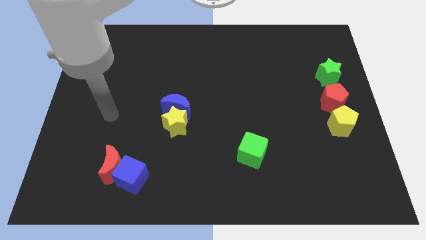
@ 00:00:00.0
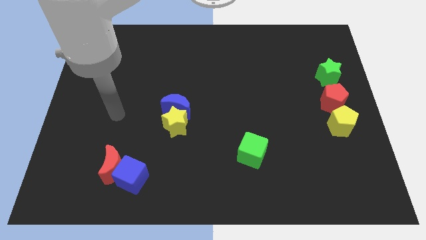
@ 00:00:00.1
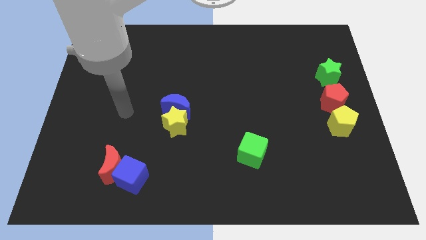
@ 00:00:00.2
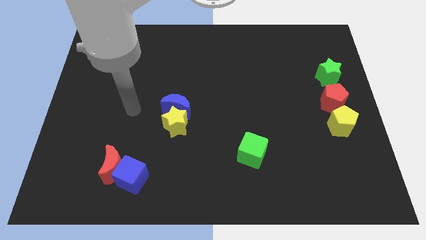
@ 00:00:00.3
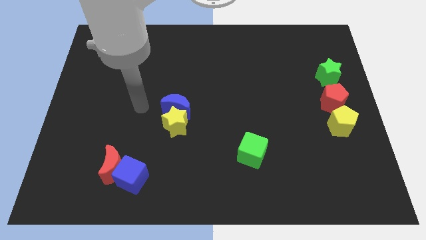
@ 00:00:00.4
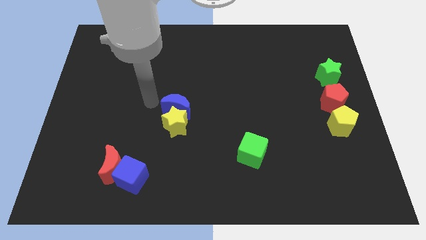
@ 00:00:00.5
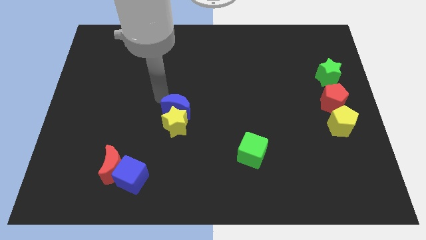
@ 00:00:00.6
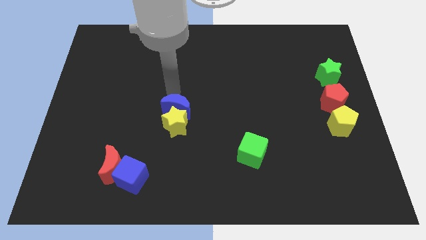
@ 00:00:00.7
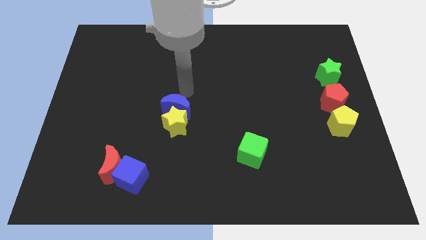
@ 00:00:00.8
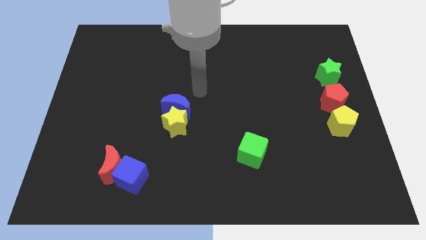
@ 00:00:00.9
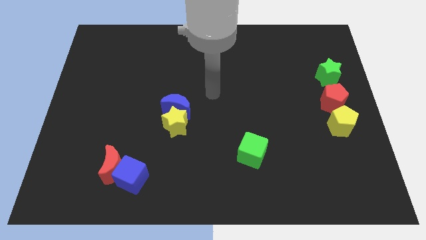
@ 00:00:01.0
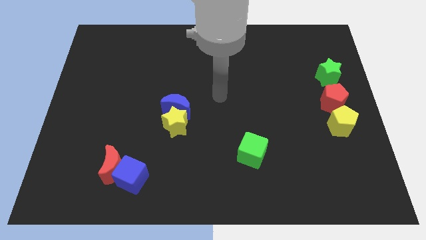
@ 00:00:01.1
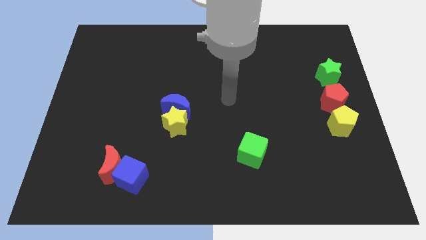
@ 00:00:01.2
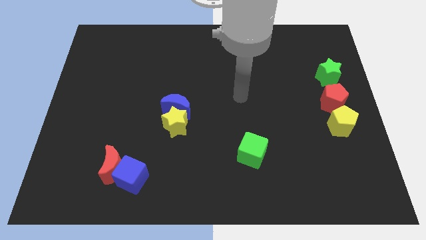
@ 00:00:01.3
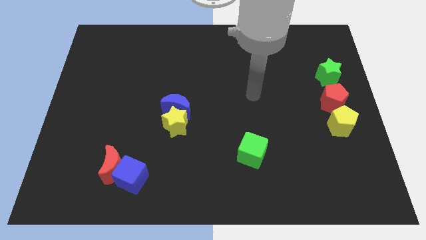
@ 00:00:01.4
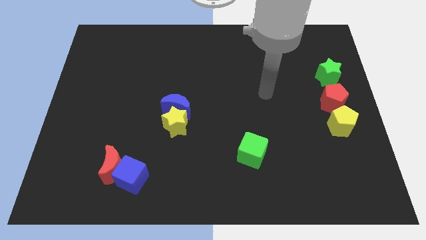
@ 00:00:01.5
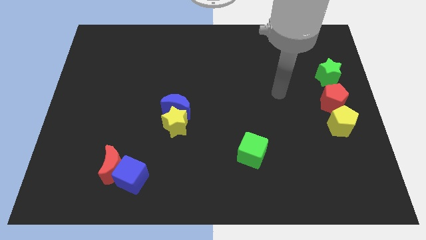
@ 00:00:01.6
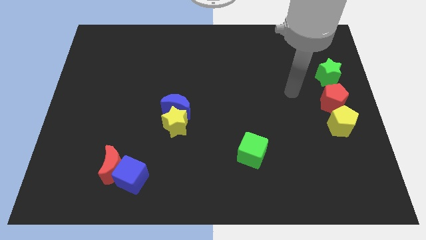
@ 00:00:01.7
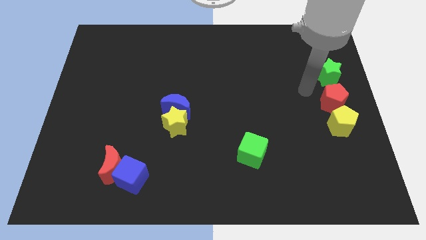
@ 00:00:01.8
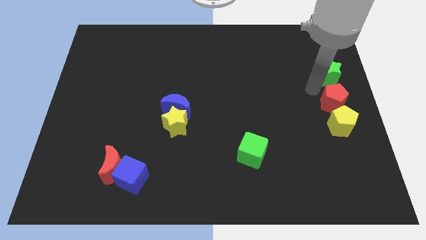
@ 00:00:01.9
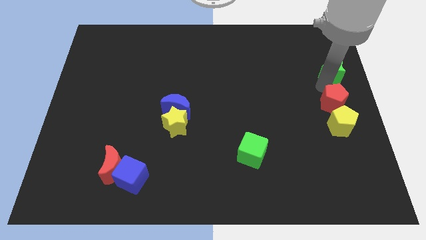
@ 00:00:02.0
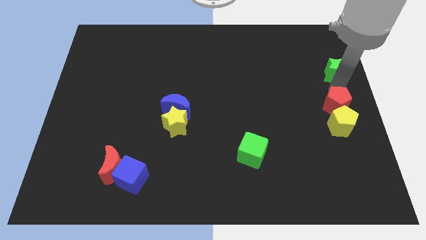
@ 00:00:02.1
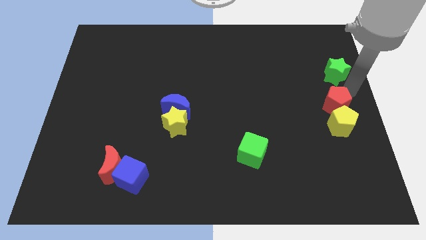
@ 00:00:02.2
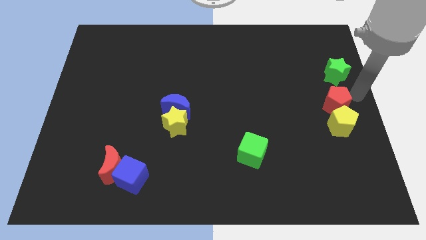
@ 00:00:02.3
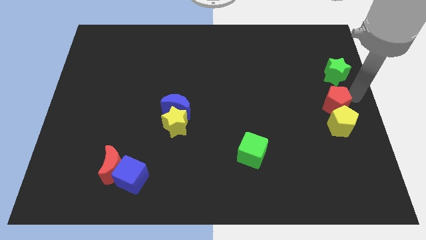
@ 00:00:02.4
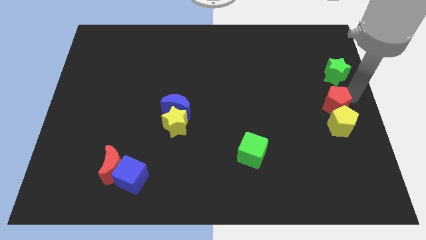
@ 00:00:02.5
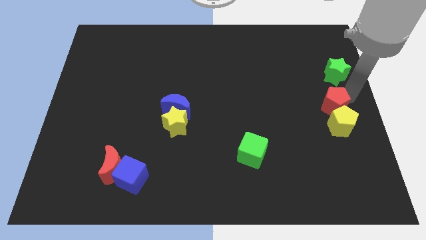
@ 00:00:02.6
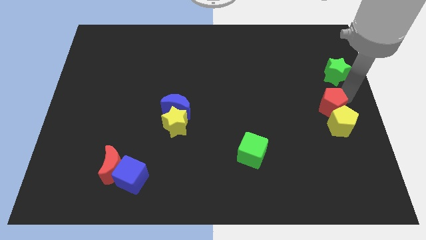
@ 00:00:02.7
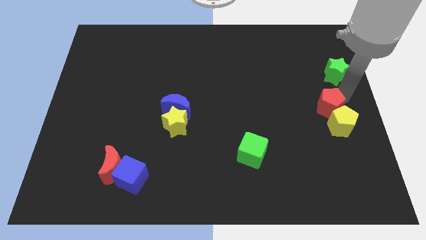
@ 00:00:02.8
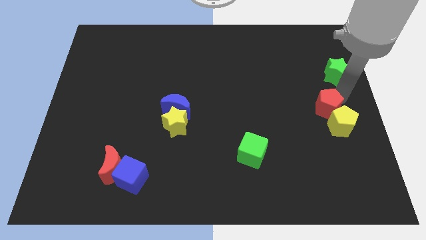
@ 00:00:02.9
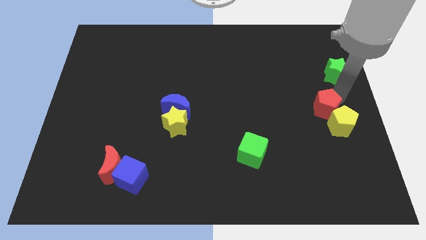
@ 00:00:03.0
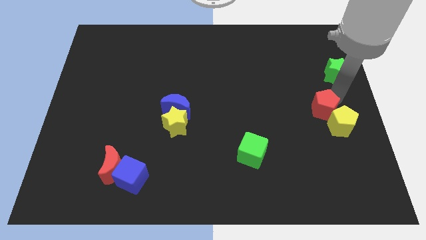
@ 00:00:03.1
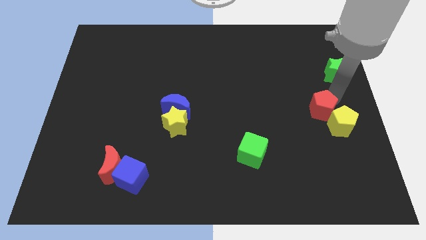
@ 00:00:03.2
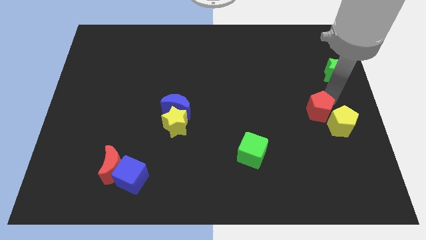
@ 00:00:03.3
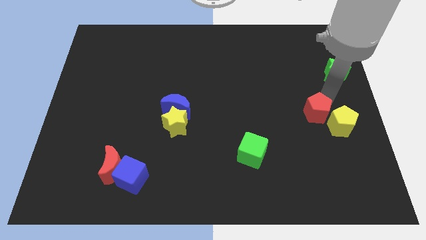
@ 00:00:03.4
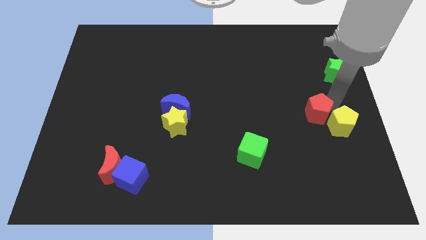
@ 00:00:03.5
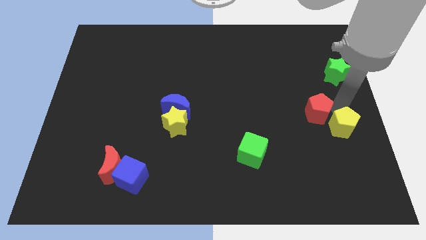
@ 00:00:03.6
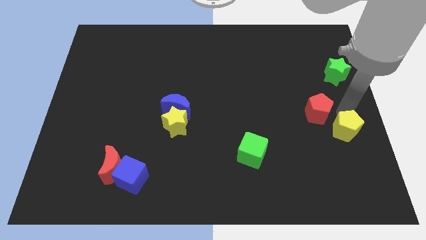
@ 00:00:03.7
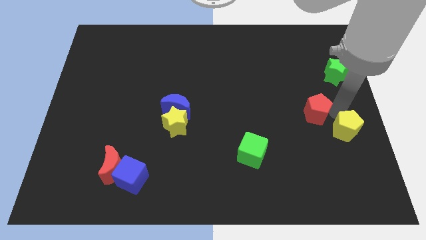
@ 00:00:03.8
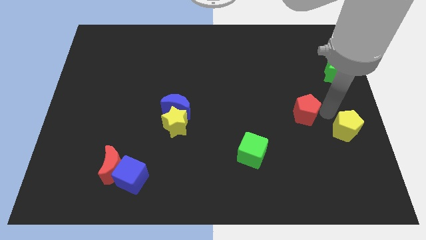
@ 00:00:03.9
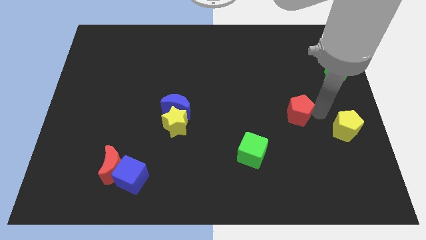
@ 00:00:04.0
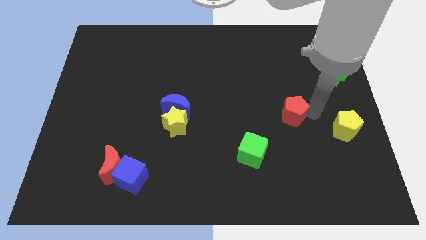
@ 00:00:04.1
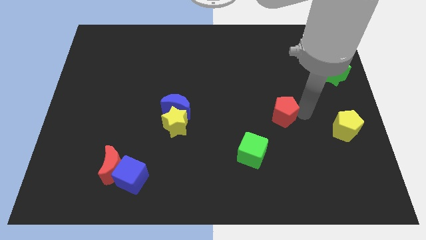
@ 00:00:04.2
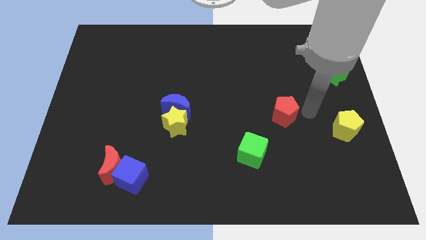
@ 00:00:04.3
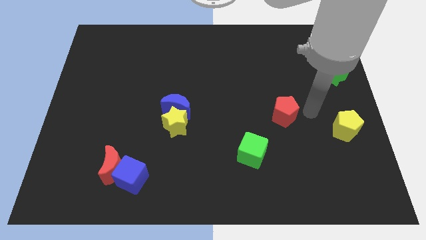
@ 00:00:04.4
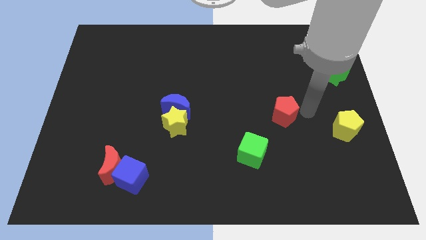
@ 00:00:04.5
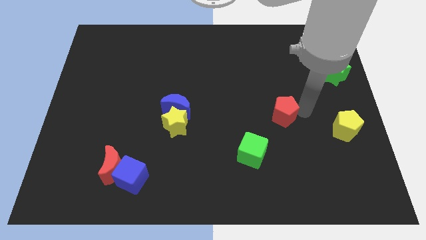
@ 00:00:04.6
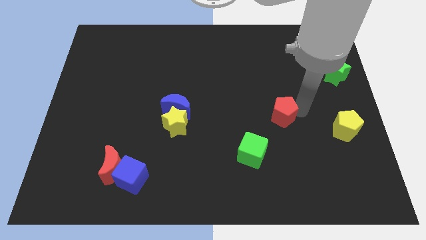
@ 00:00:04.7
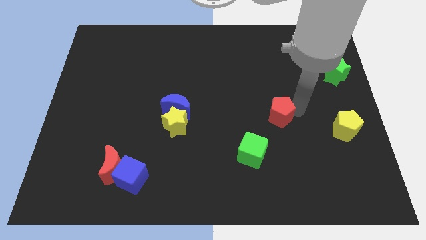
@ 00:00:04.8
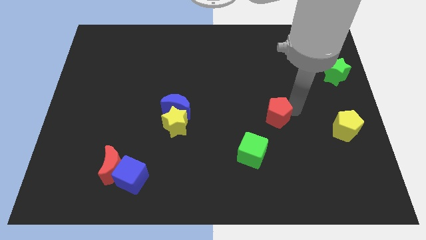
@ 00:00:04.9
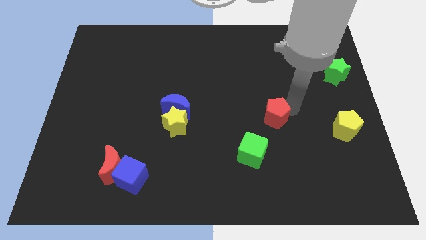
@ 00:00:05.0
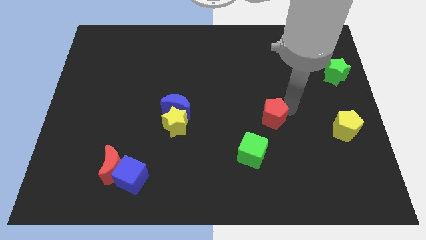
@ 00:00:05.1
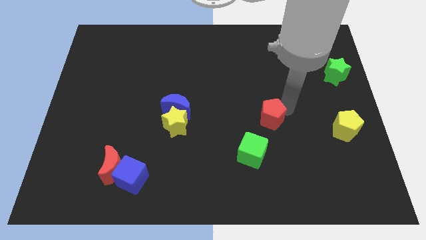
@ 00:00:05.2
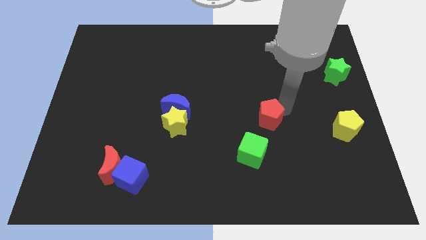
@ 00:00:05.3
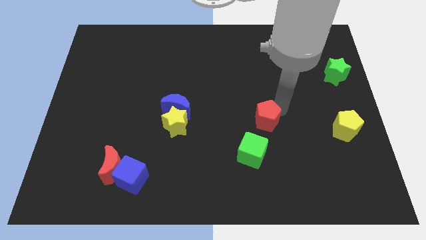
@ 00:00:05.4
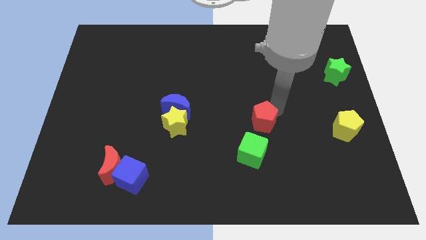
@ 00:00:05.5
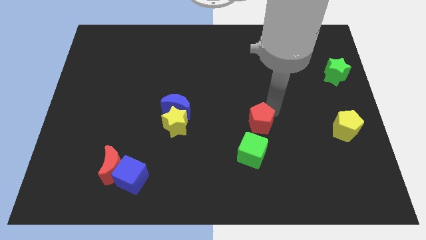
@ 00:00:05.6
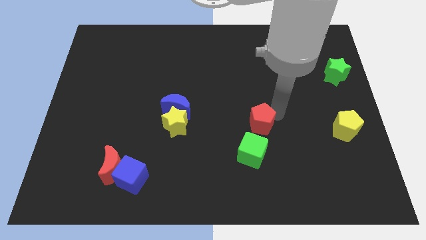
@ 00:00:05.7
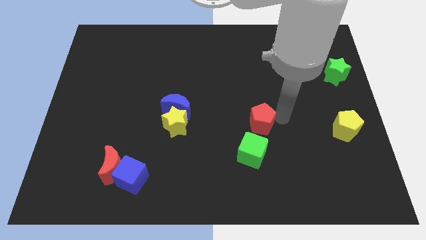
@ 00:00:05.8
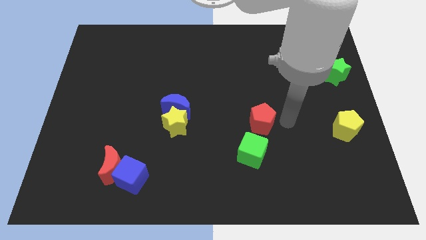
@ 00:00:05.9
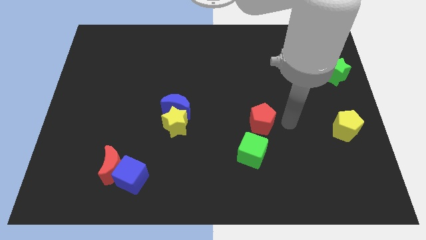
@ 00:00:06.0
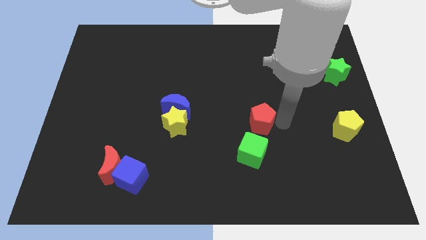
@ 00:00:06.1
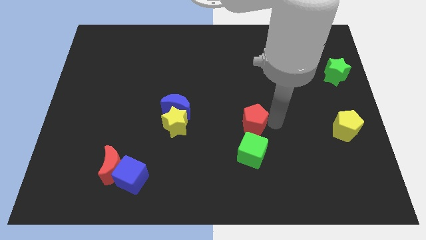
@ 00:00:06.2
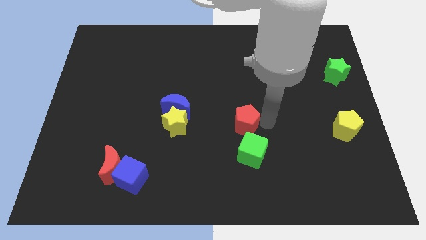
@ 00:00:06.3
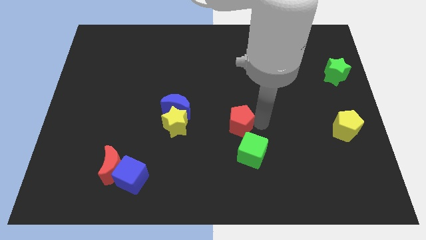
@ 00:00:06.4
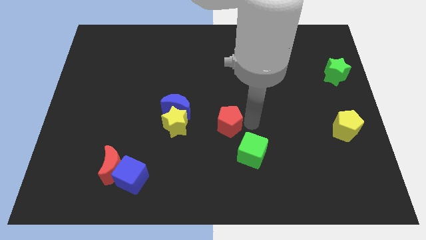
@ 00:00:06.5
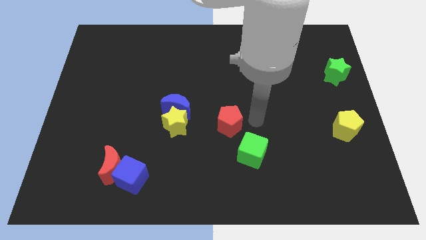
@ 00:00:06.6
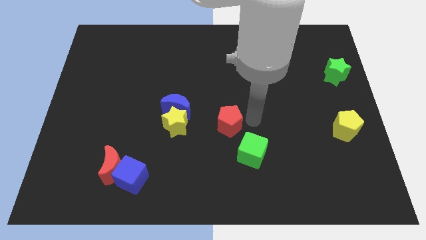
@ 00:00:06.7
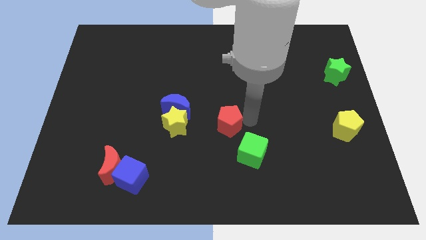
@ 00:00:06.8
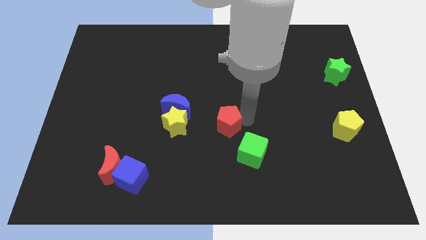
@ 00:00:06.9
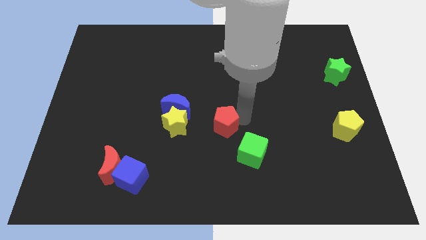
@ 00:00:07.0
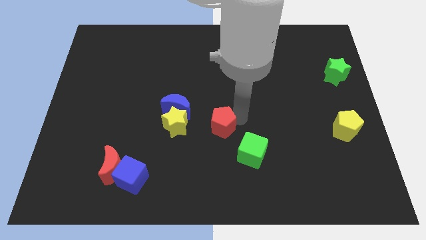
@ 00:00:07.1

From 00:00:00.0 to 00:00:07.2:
move the red pentagon to the bottom right side of the blue moon
